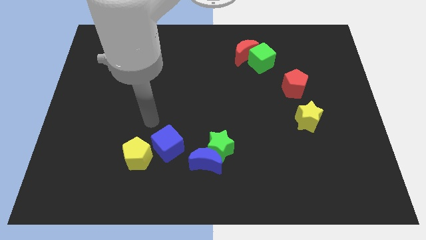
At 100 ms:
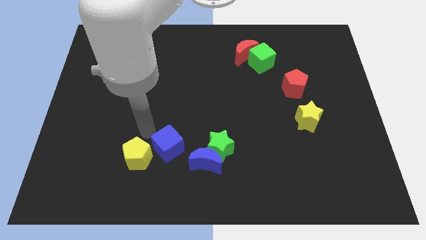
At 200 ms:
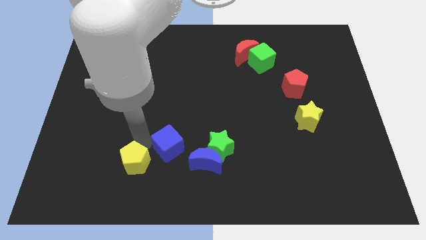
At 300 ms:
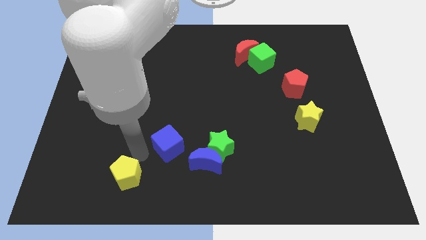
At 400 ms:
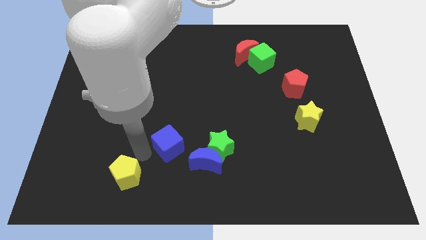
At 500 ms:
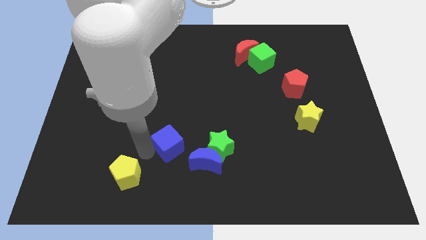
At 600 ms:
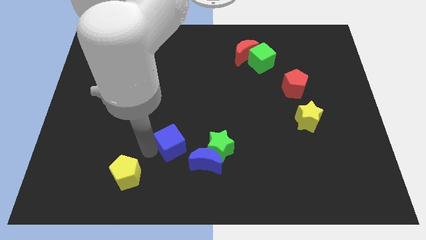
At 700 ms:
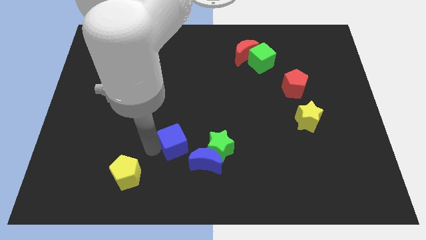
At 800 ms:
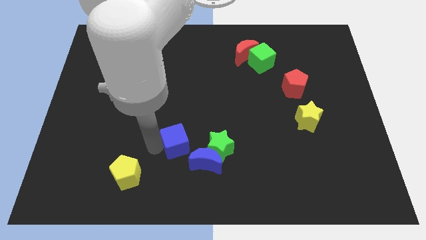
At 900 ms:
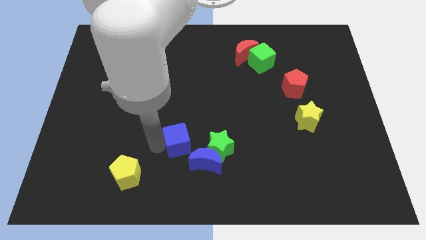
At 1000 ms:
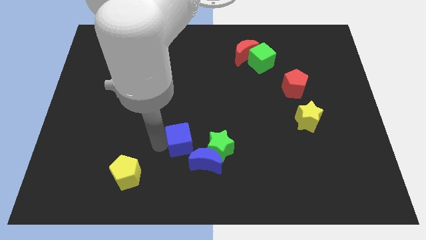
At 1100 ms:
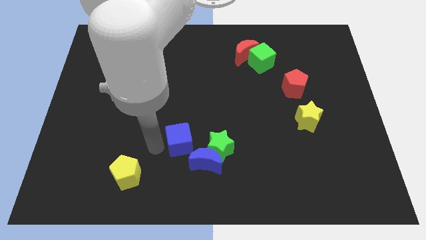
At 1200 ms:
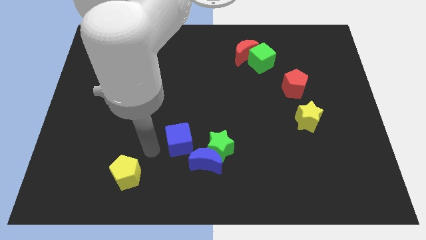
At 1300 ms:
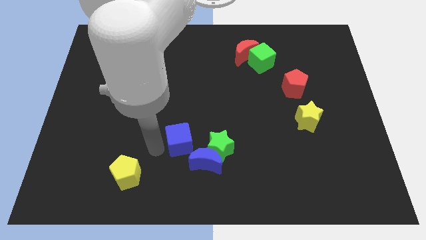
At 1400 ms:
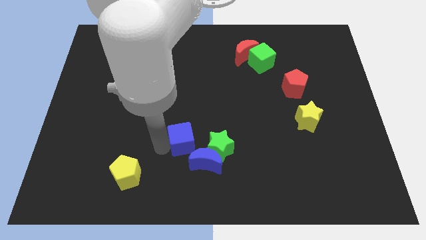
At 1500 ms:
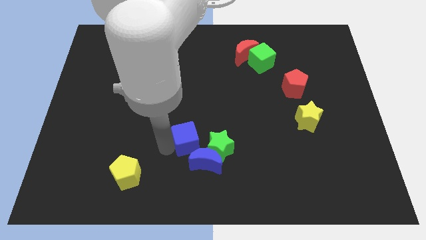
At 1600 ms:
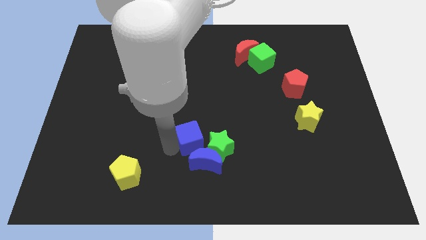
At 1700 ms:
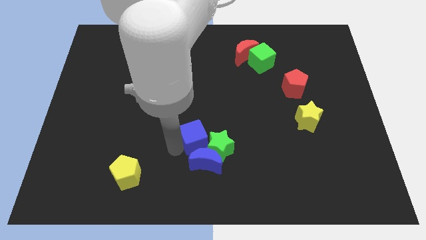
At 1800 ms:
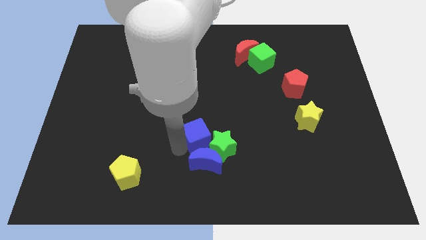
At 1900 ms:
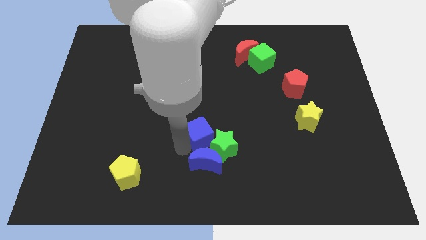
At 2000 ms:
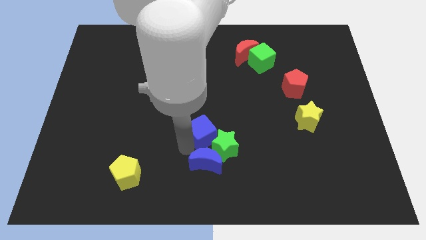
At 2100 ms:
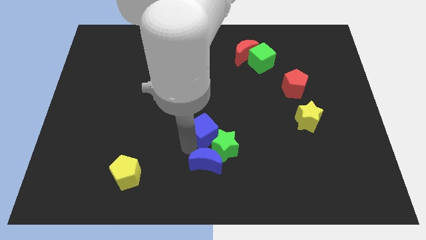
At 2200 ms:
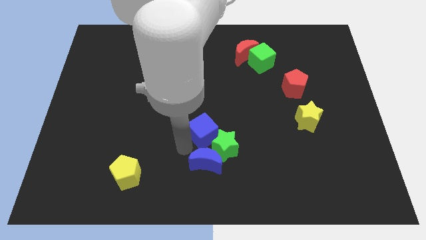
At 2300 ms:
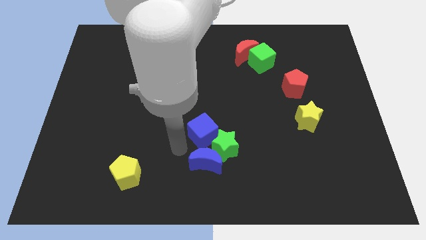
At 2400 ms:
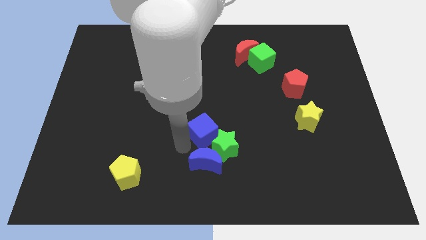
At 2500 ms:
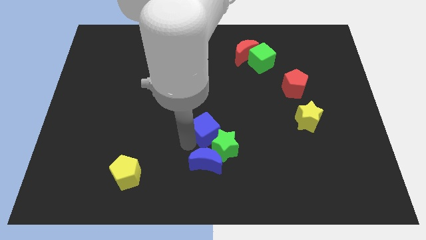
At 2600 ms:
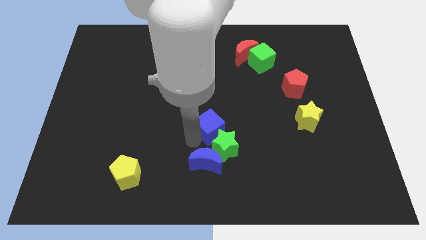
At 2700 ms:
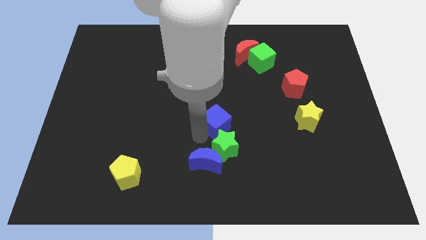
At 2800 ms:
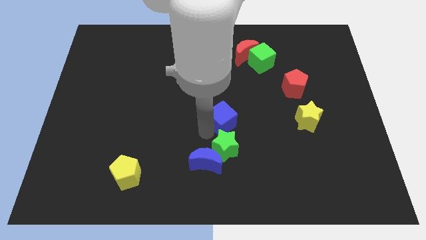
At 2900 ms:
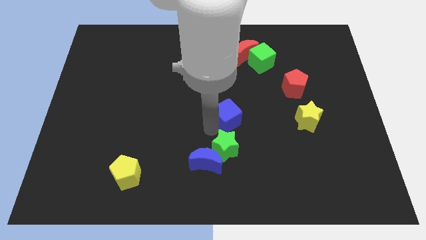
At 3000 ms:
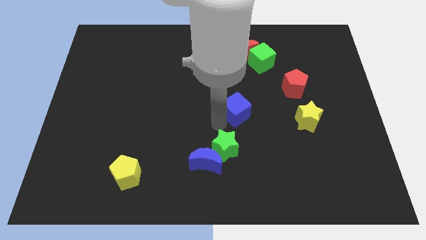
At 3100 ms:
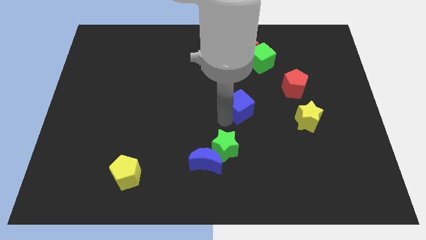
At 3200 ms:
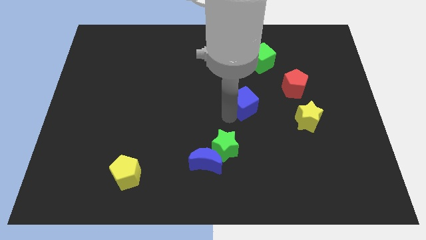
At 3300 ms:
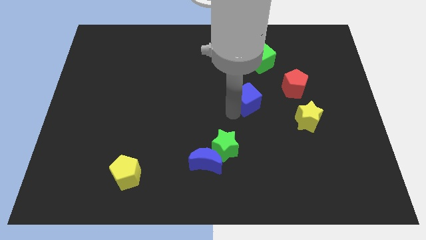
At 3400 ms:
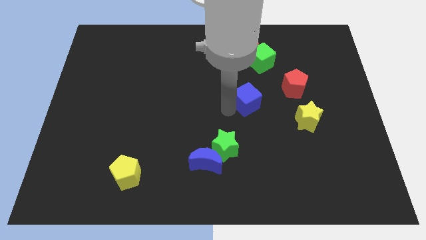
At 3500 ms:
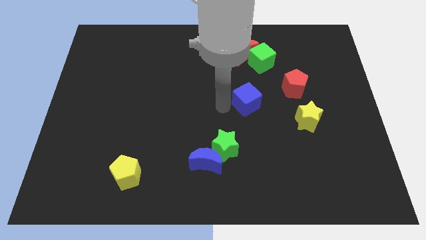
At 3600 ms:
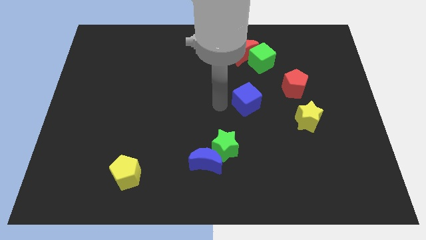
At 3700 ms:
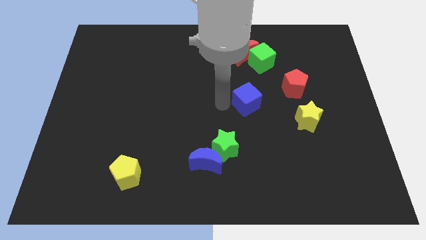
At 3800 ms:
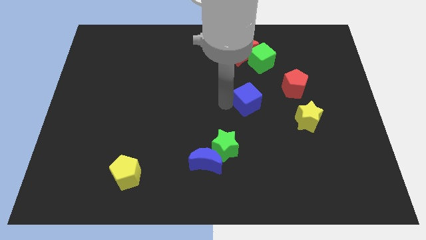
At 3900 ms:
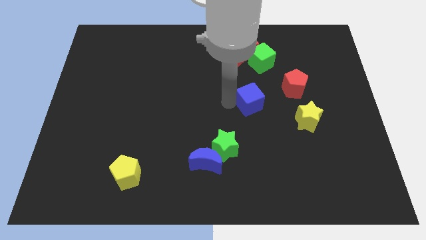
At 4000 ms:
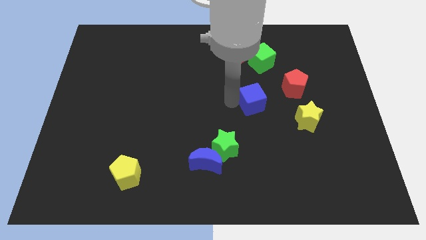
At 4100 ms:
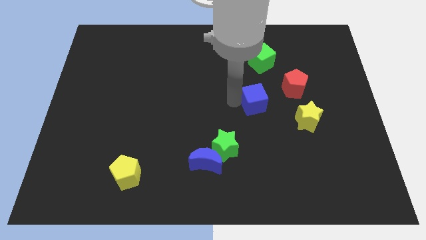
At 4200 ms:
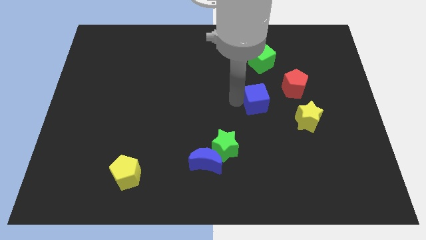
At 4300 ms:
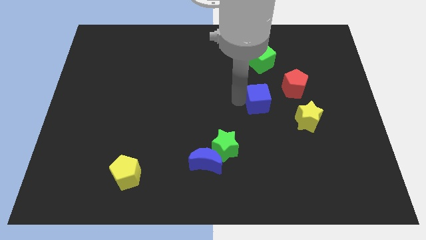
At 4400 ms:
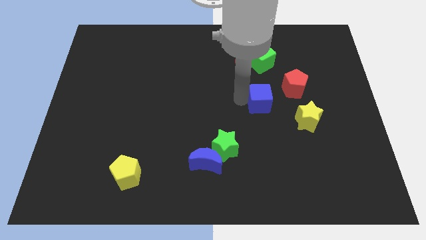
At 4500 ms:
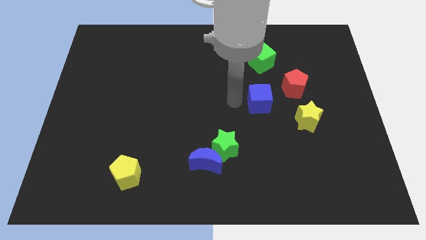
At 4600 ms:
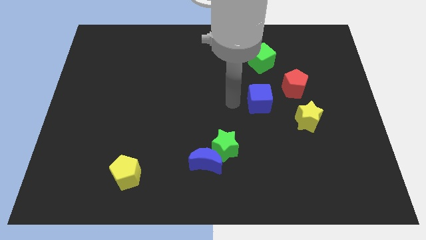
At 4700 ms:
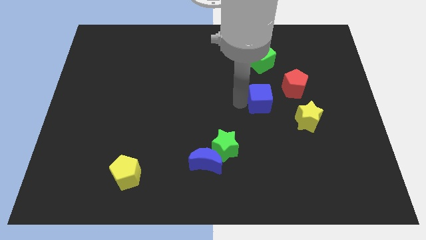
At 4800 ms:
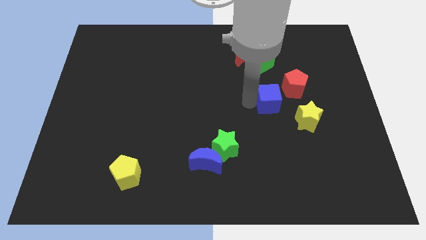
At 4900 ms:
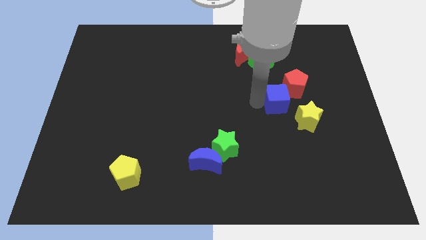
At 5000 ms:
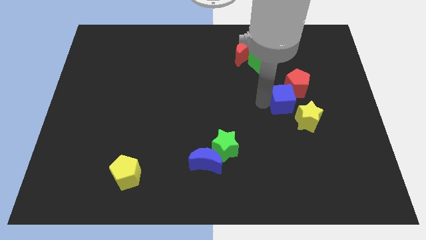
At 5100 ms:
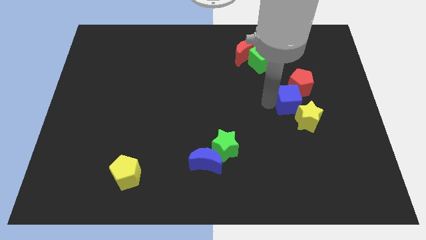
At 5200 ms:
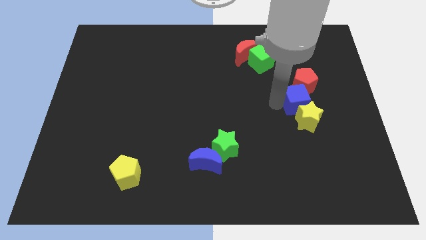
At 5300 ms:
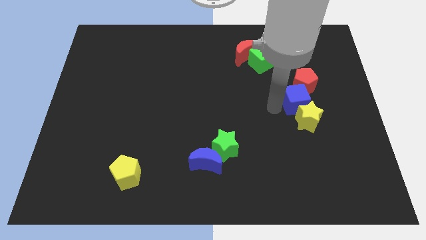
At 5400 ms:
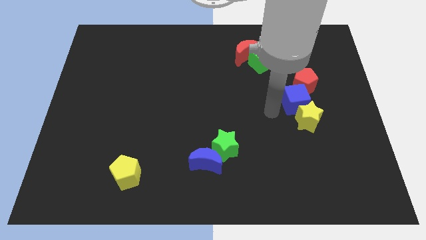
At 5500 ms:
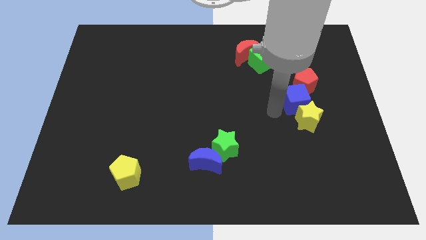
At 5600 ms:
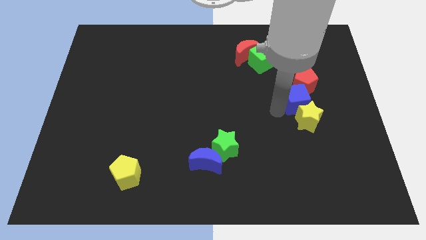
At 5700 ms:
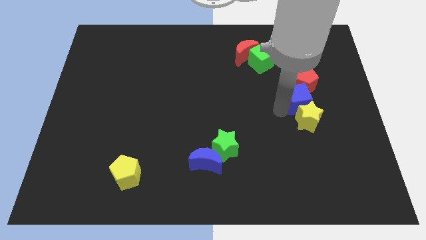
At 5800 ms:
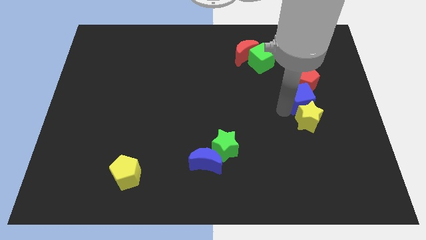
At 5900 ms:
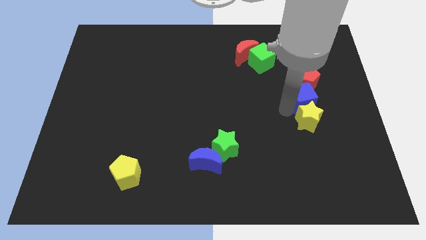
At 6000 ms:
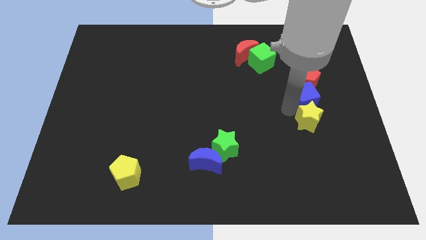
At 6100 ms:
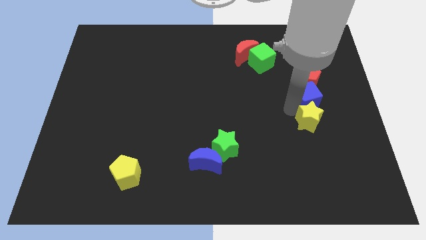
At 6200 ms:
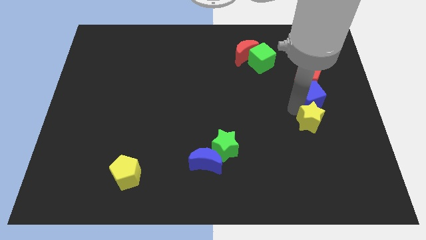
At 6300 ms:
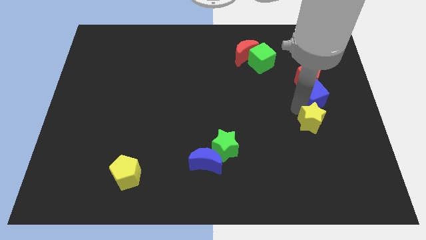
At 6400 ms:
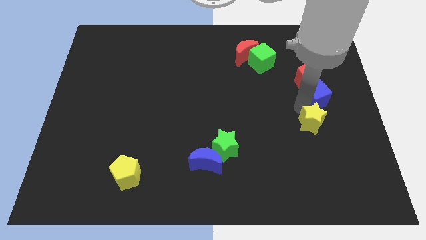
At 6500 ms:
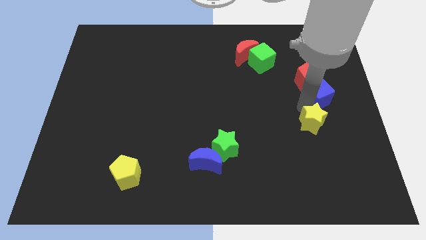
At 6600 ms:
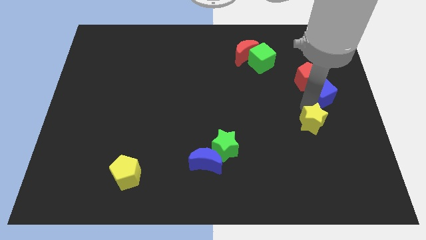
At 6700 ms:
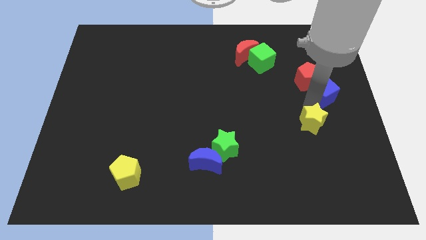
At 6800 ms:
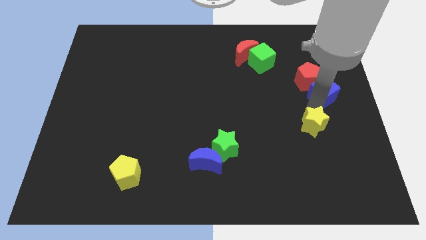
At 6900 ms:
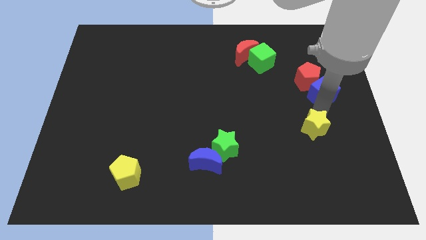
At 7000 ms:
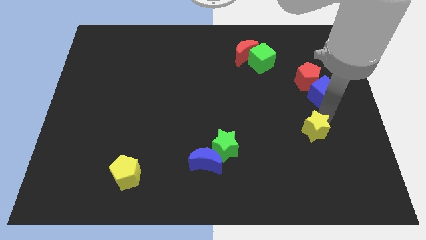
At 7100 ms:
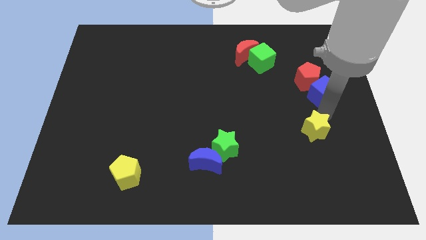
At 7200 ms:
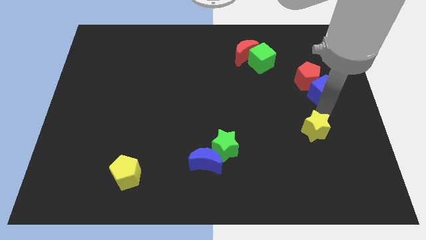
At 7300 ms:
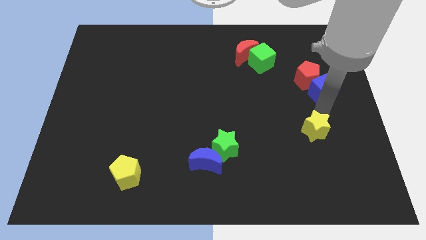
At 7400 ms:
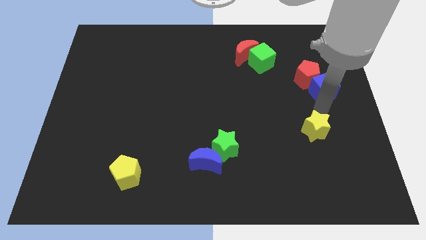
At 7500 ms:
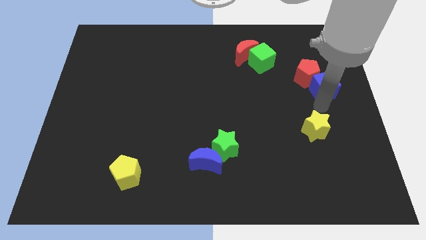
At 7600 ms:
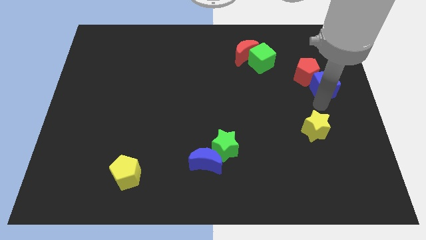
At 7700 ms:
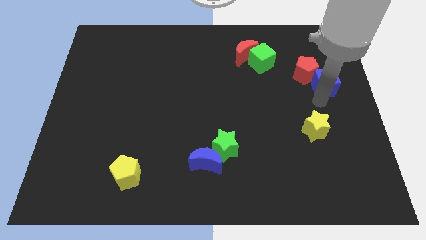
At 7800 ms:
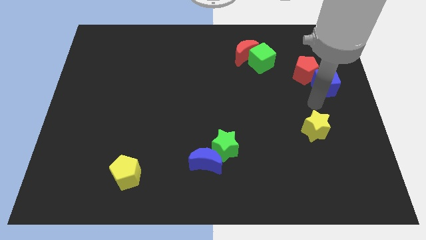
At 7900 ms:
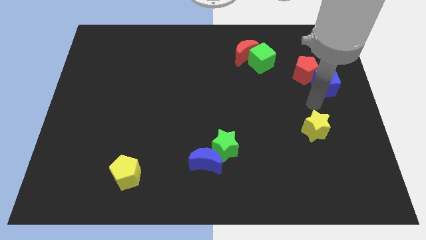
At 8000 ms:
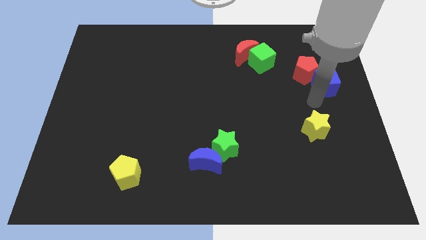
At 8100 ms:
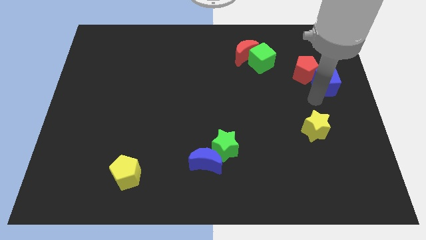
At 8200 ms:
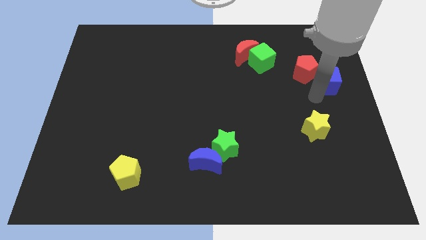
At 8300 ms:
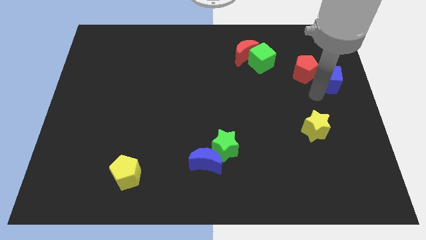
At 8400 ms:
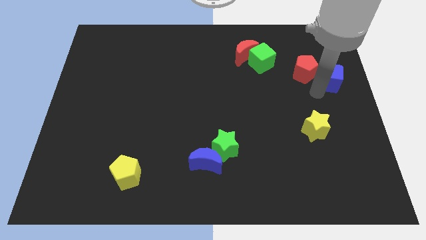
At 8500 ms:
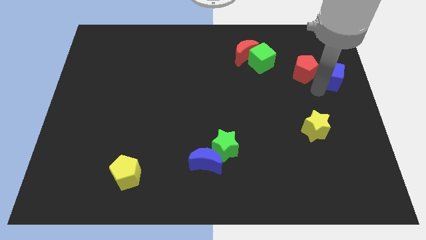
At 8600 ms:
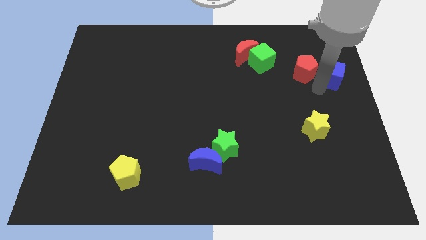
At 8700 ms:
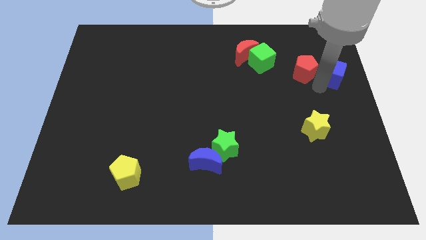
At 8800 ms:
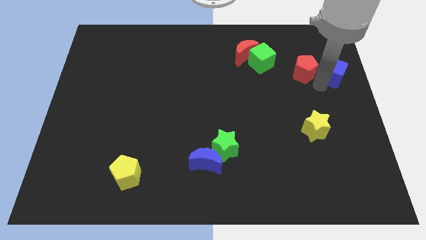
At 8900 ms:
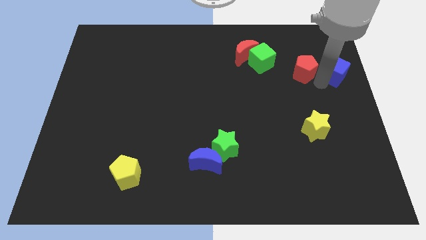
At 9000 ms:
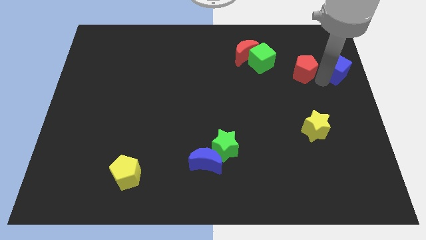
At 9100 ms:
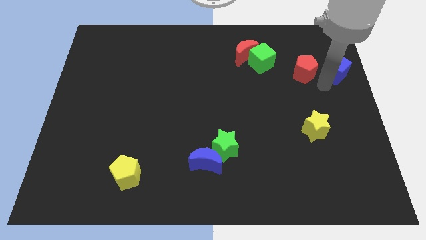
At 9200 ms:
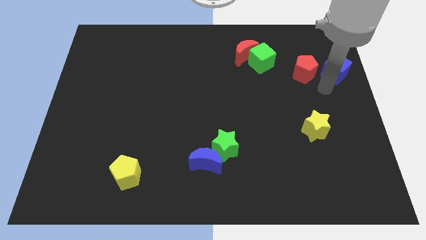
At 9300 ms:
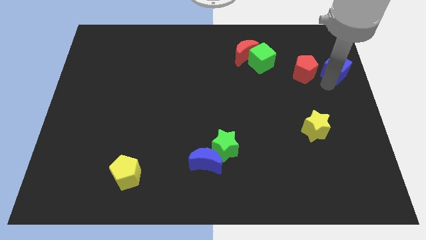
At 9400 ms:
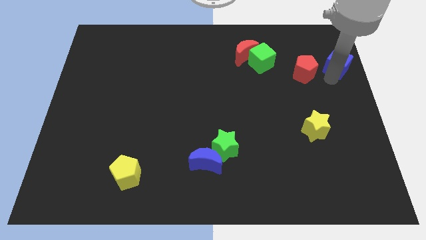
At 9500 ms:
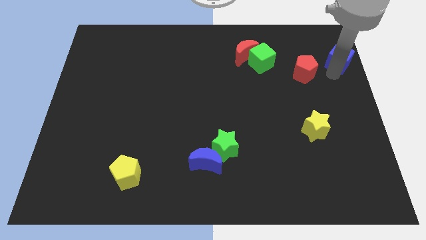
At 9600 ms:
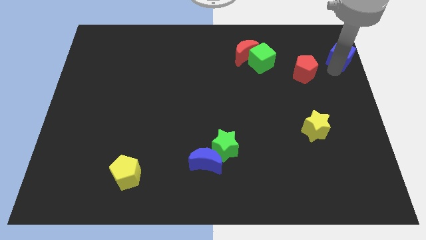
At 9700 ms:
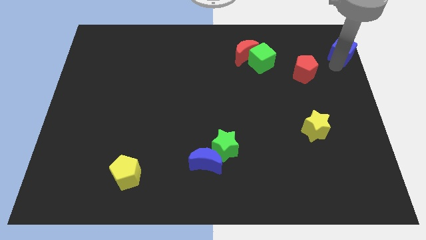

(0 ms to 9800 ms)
move the blue cube to the top right
